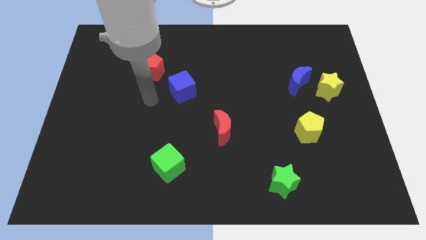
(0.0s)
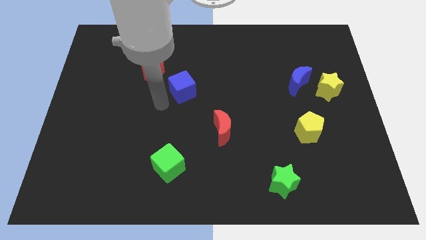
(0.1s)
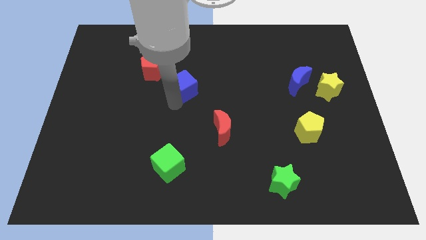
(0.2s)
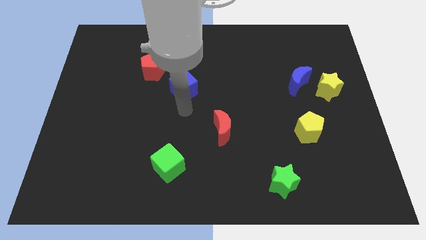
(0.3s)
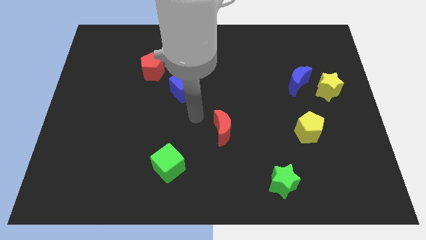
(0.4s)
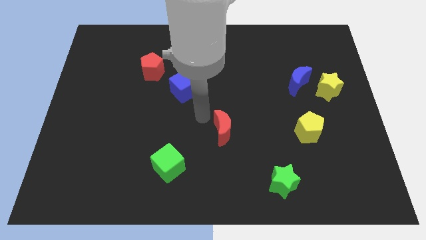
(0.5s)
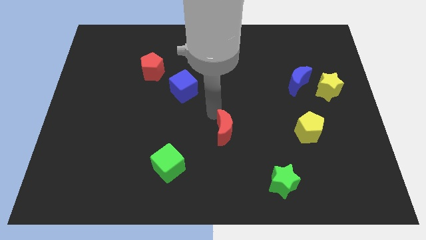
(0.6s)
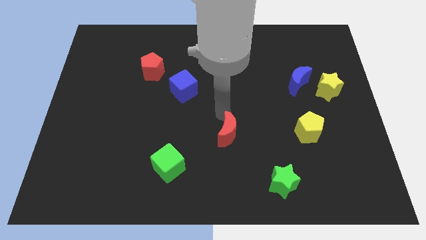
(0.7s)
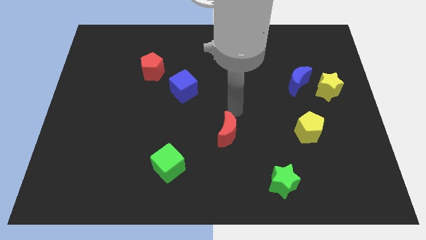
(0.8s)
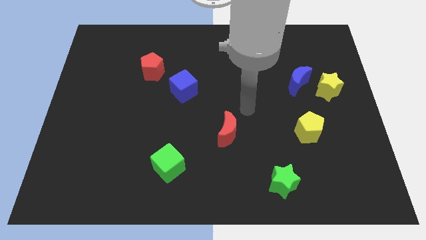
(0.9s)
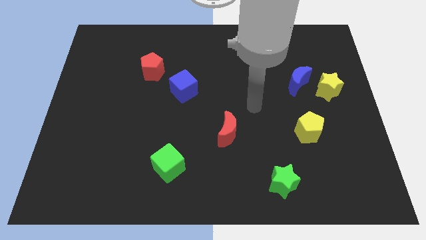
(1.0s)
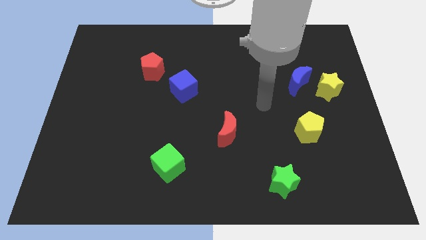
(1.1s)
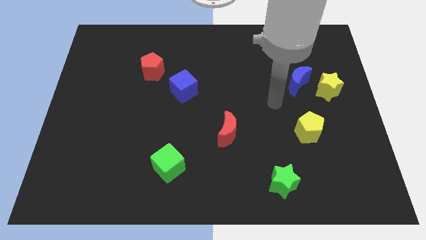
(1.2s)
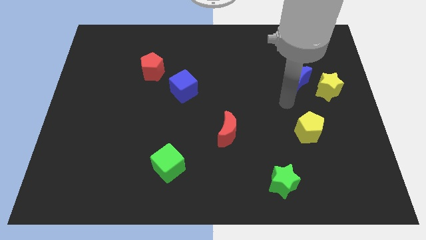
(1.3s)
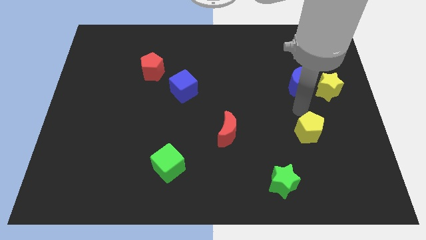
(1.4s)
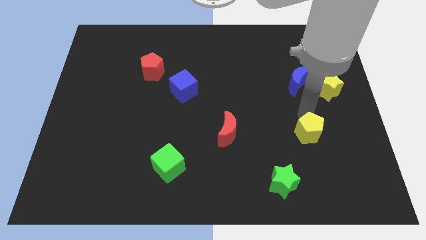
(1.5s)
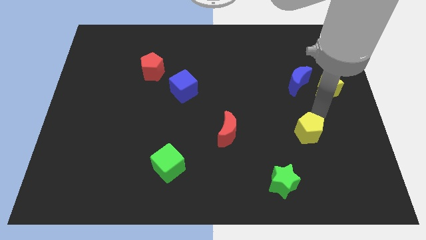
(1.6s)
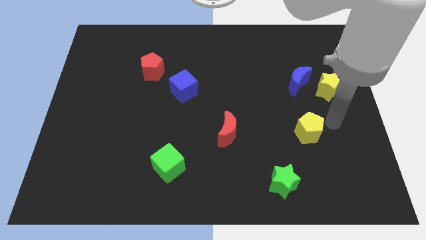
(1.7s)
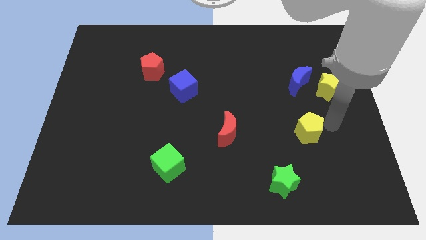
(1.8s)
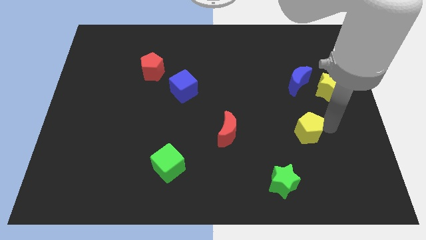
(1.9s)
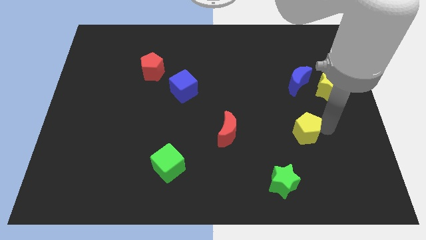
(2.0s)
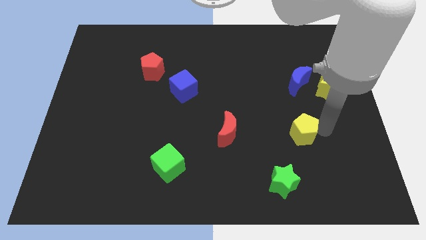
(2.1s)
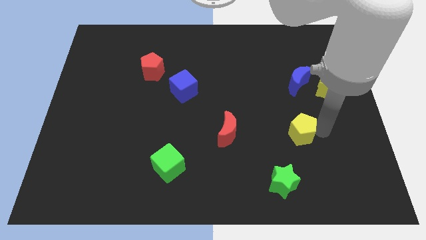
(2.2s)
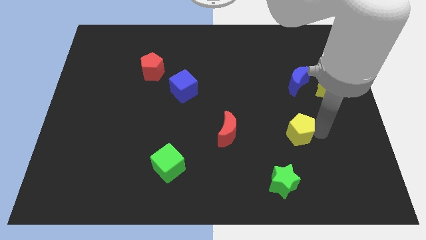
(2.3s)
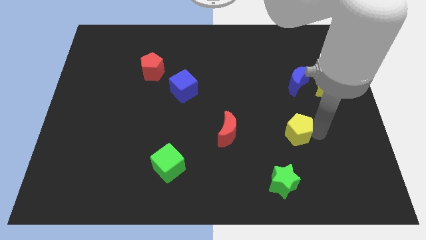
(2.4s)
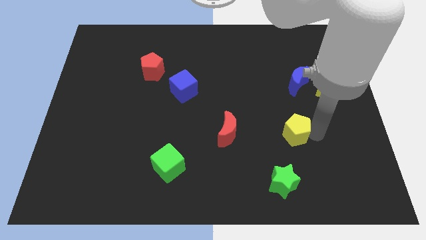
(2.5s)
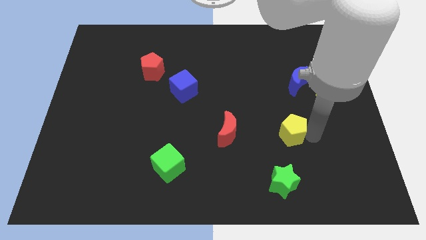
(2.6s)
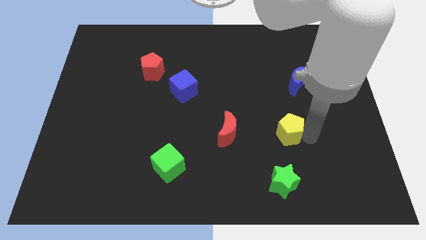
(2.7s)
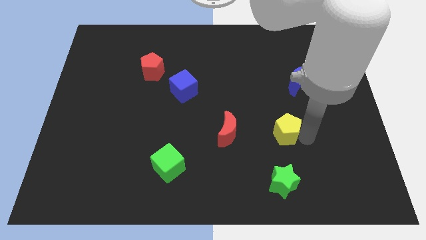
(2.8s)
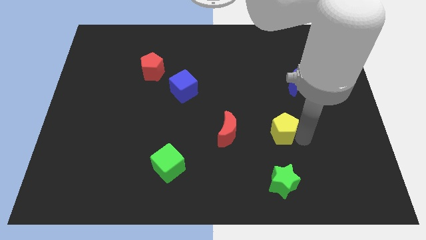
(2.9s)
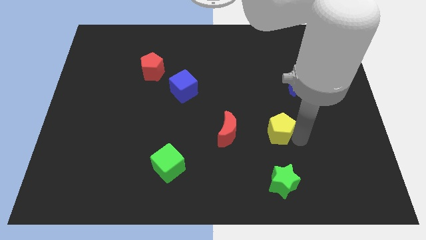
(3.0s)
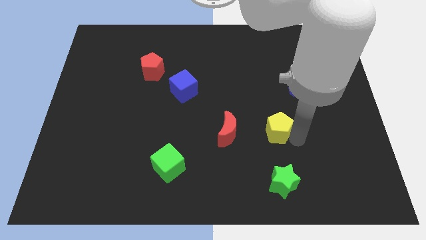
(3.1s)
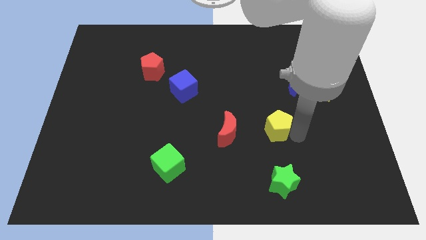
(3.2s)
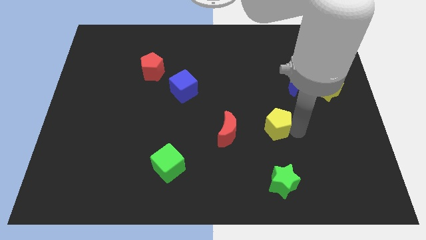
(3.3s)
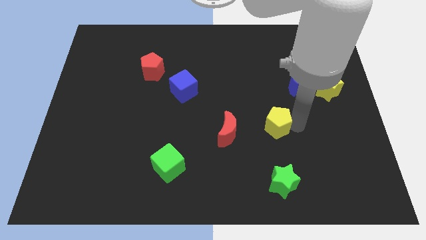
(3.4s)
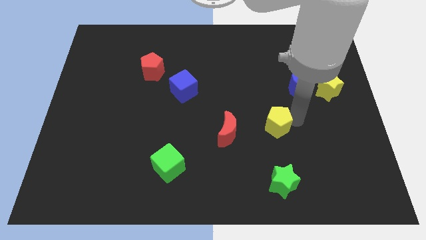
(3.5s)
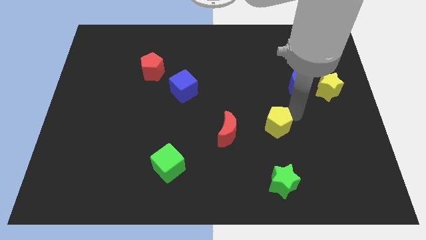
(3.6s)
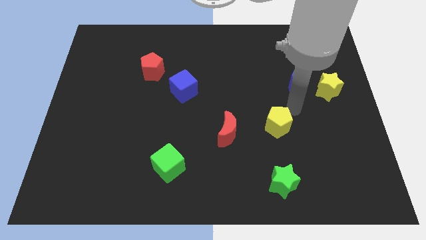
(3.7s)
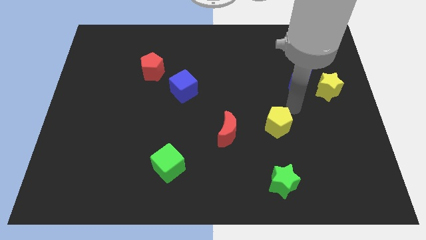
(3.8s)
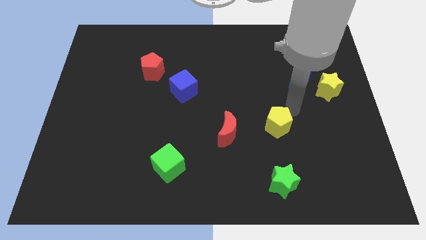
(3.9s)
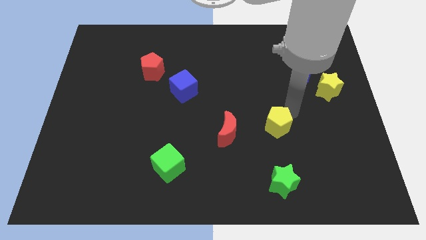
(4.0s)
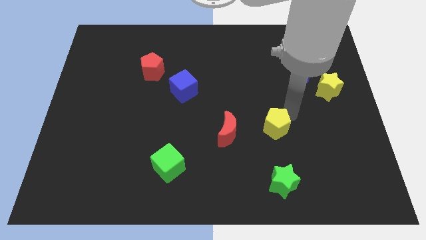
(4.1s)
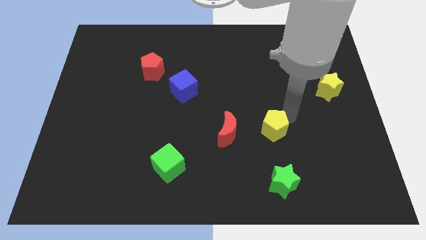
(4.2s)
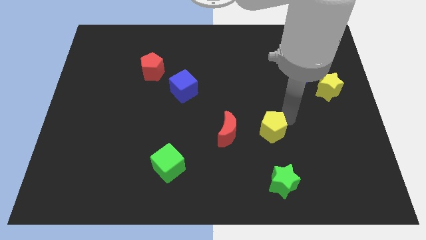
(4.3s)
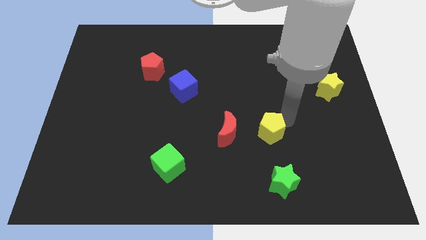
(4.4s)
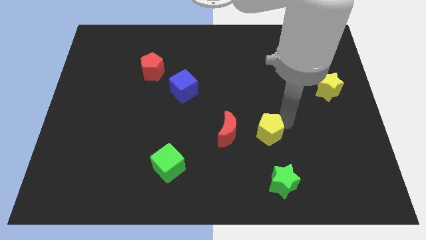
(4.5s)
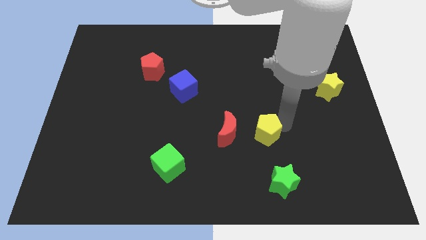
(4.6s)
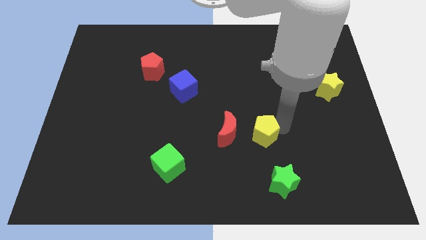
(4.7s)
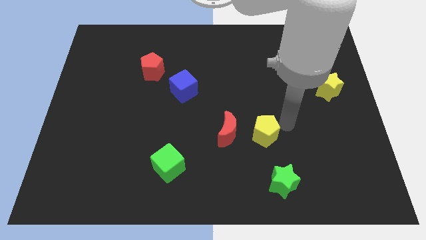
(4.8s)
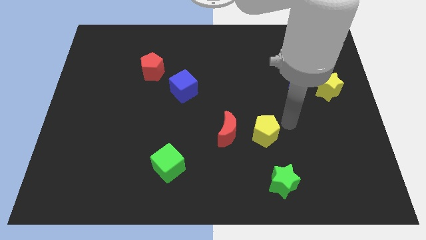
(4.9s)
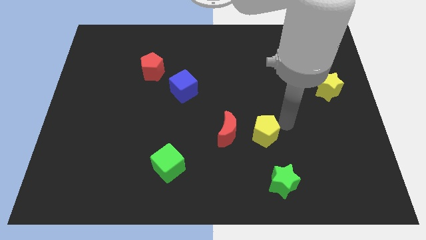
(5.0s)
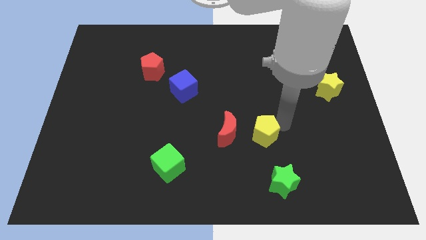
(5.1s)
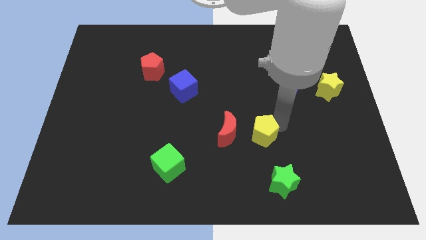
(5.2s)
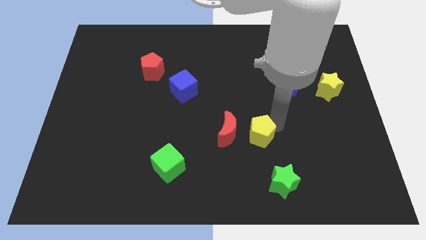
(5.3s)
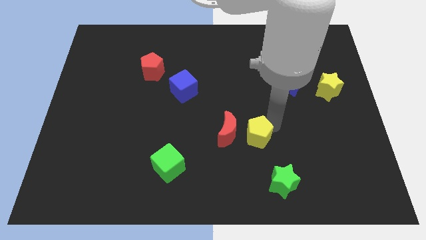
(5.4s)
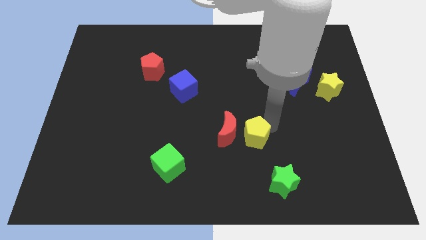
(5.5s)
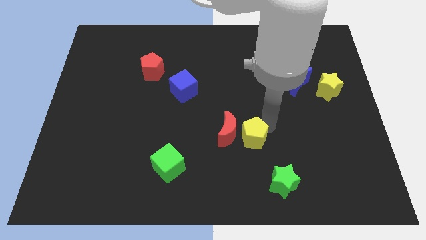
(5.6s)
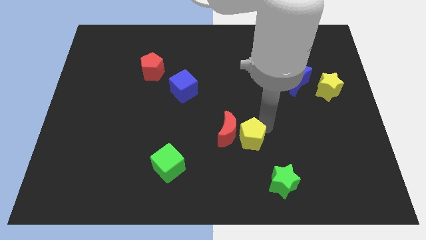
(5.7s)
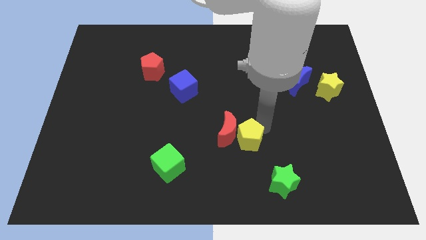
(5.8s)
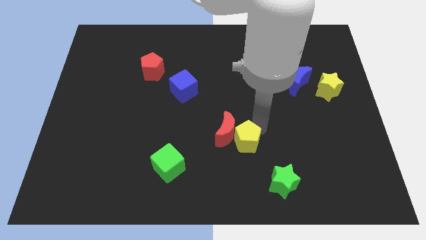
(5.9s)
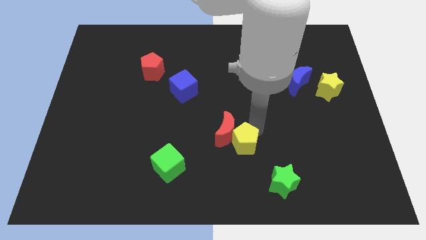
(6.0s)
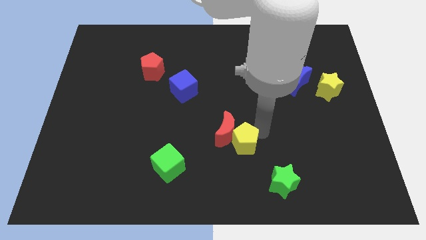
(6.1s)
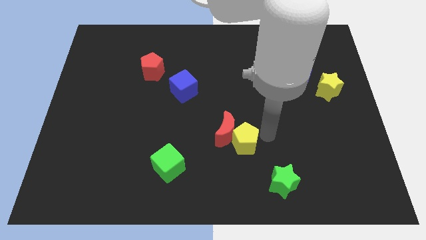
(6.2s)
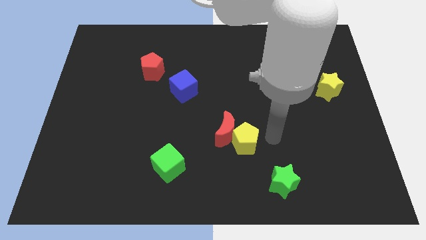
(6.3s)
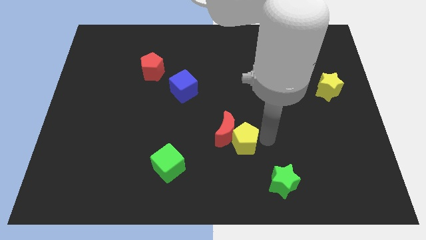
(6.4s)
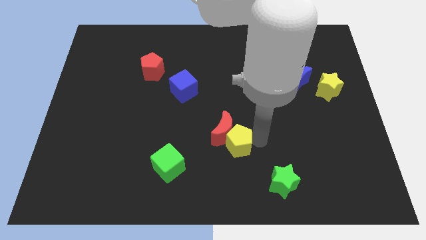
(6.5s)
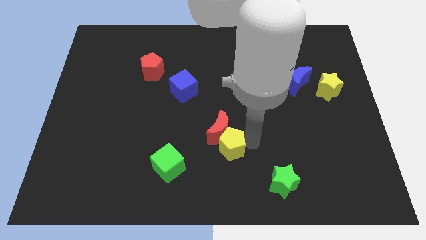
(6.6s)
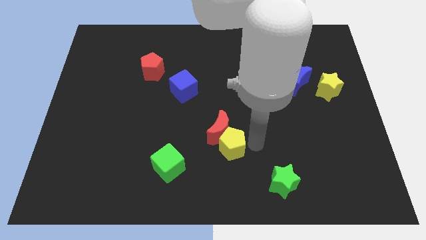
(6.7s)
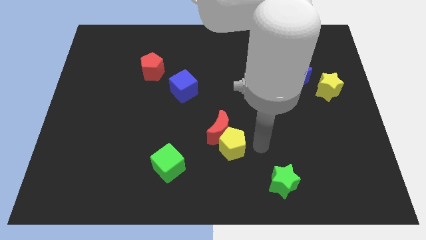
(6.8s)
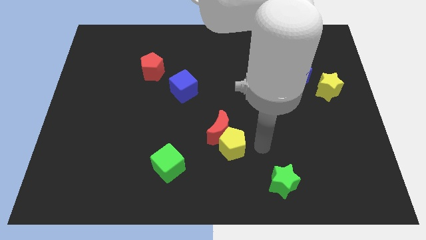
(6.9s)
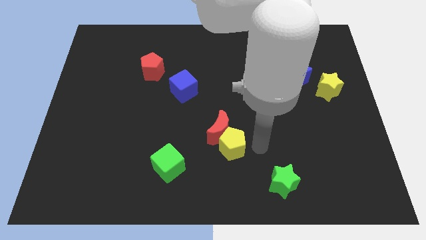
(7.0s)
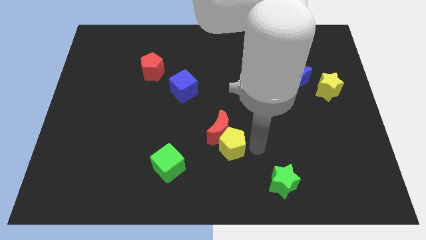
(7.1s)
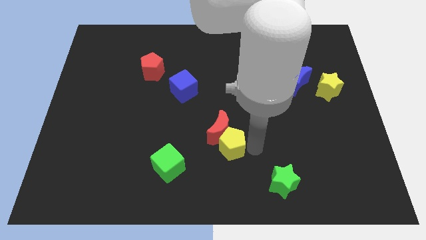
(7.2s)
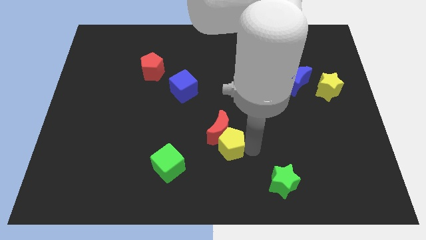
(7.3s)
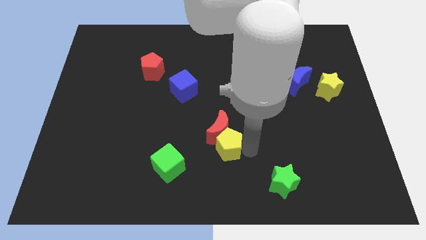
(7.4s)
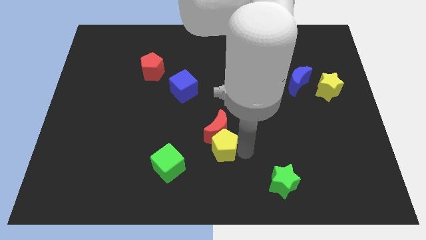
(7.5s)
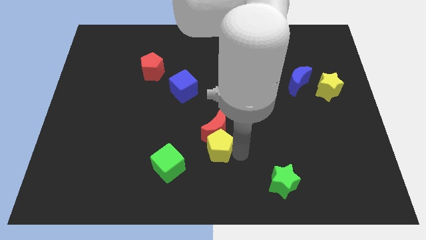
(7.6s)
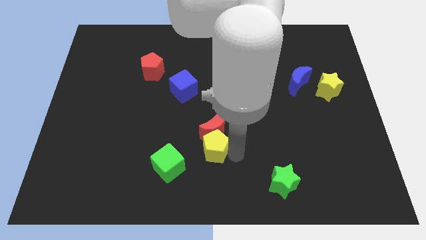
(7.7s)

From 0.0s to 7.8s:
push the yellow pentagon left

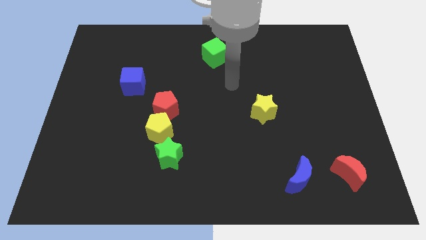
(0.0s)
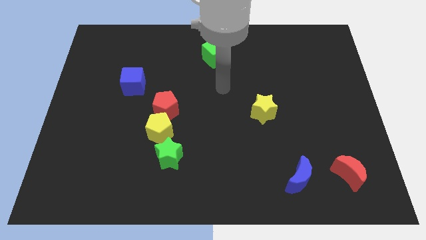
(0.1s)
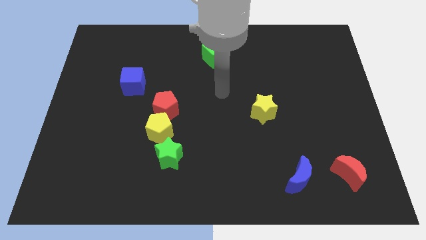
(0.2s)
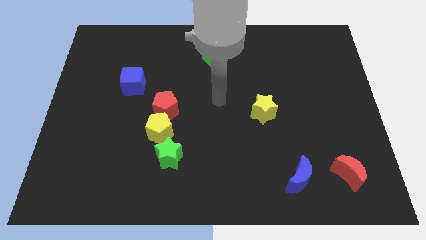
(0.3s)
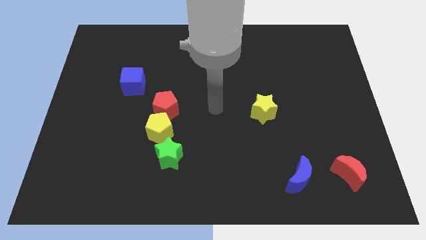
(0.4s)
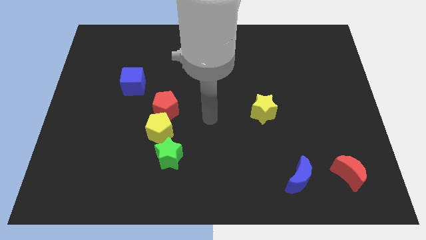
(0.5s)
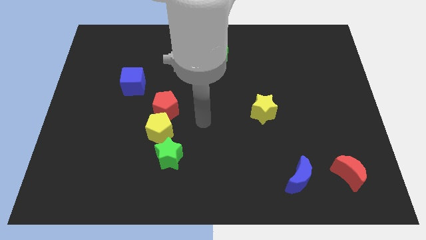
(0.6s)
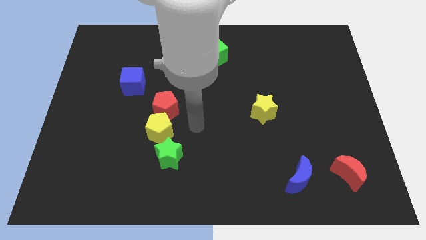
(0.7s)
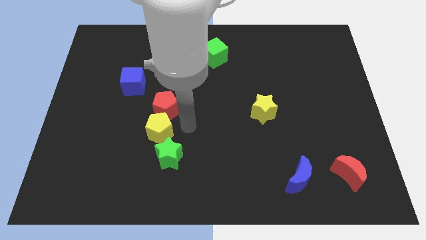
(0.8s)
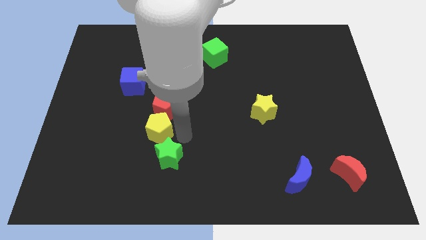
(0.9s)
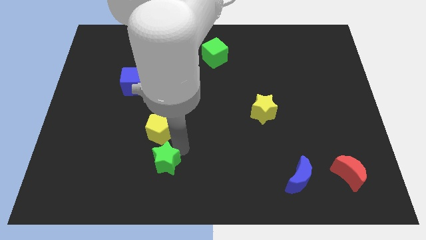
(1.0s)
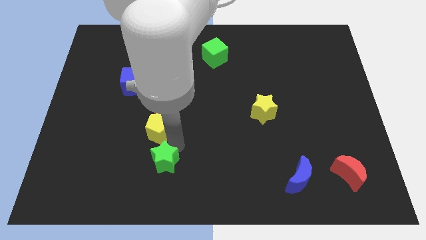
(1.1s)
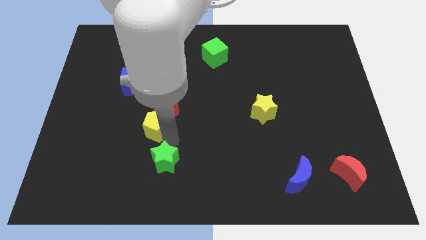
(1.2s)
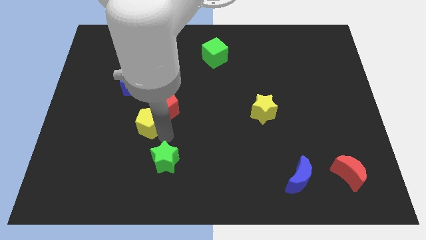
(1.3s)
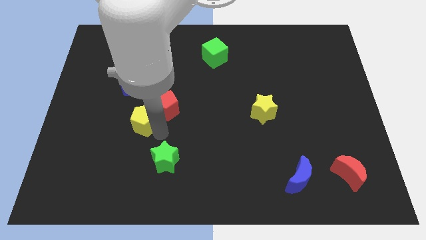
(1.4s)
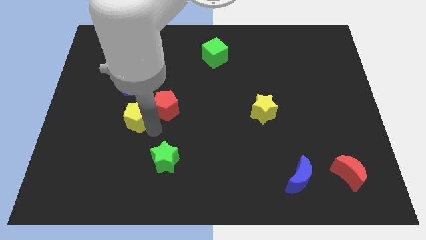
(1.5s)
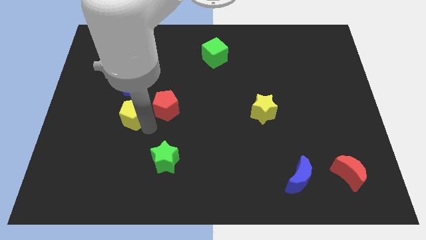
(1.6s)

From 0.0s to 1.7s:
slide the yellow pentagon up and to the left a bit
